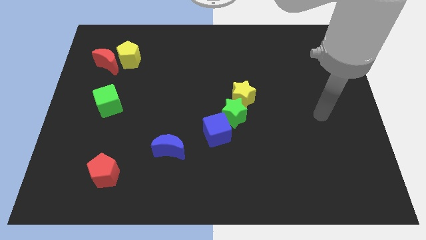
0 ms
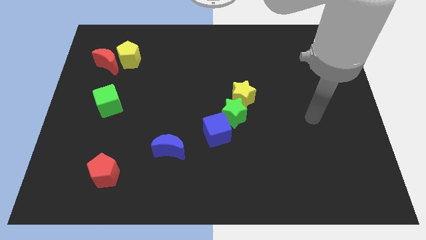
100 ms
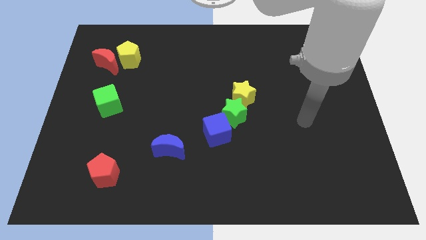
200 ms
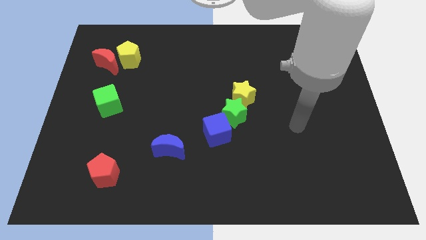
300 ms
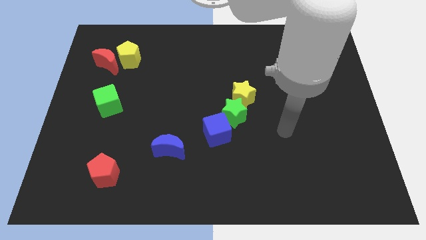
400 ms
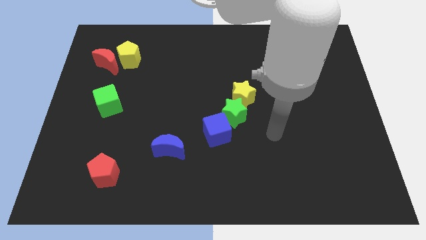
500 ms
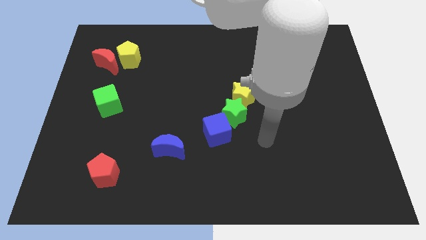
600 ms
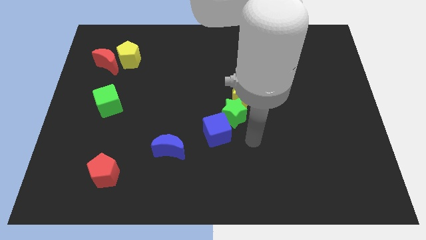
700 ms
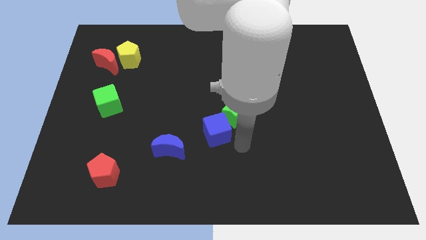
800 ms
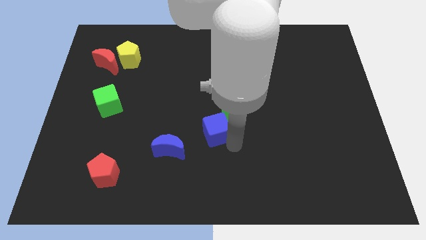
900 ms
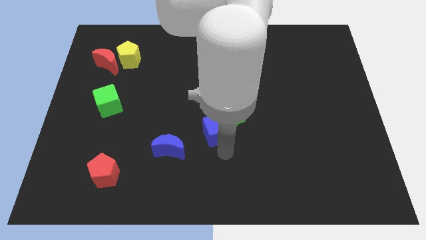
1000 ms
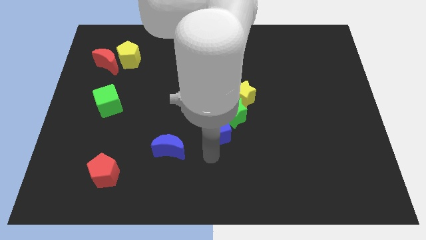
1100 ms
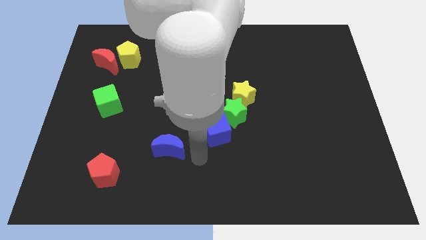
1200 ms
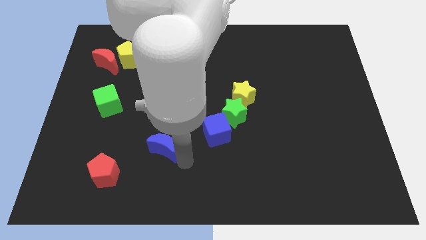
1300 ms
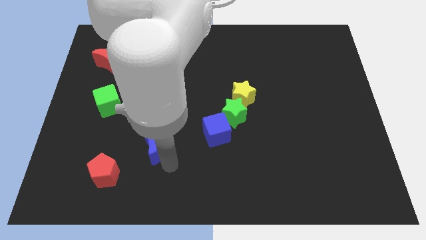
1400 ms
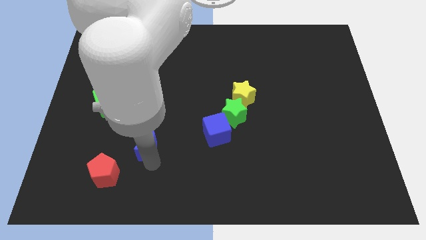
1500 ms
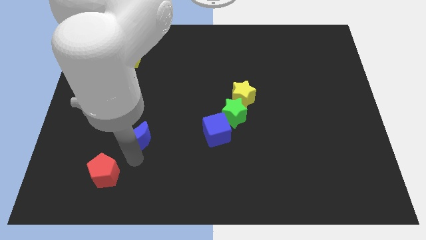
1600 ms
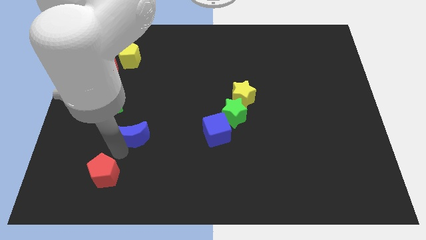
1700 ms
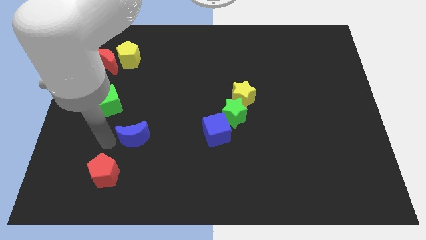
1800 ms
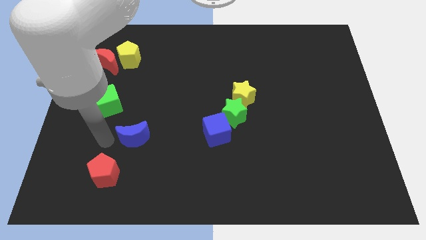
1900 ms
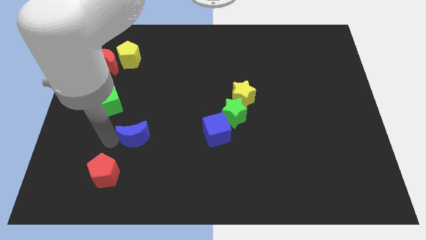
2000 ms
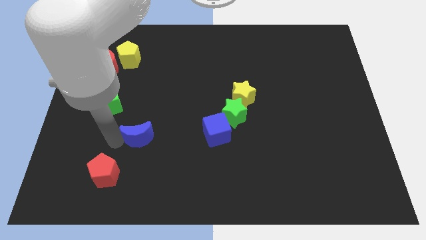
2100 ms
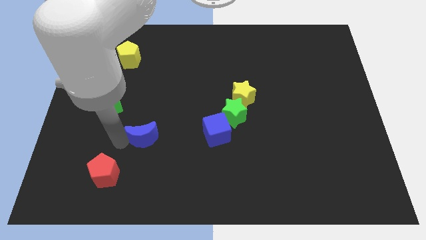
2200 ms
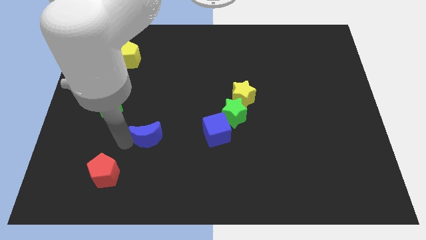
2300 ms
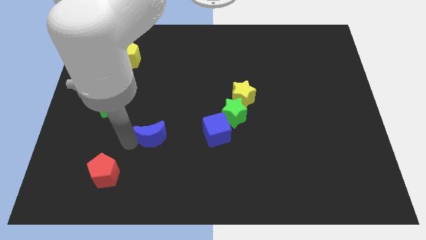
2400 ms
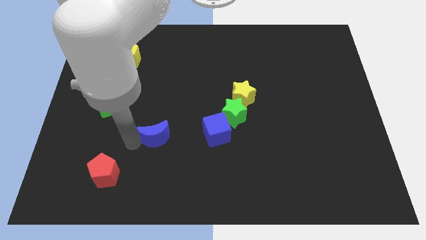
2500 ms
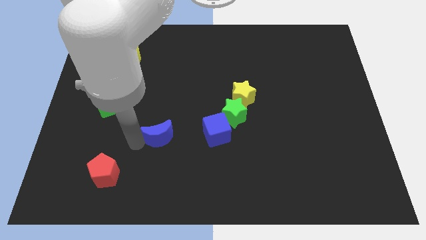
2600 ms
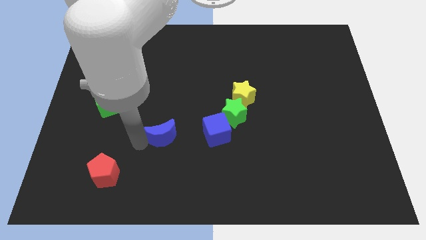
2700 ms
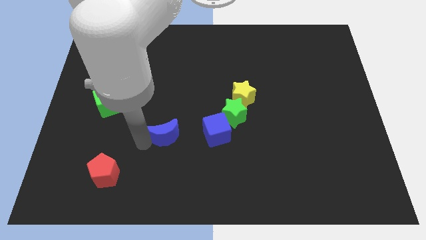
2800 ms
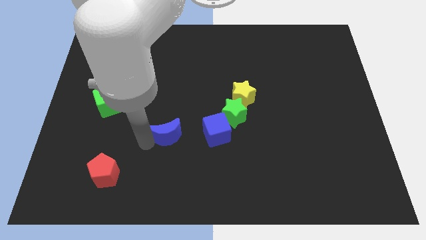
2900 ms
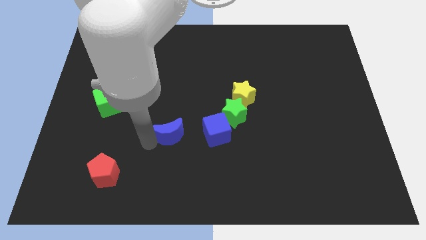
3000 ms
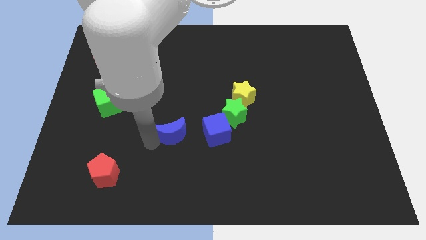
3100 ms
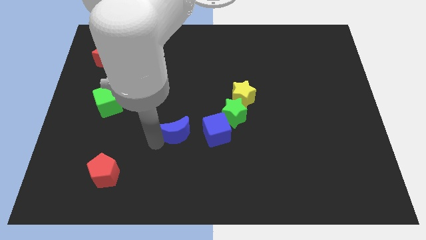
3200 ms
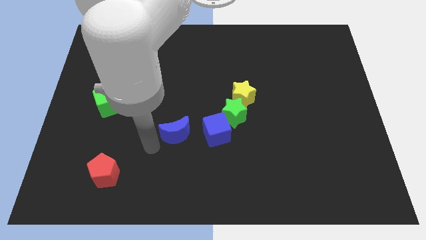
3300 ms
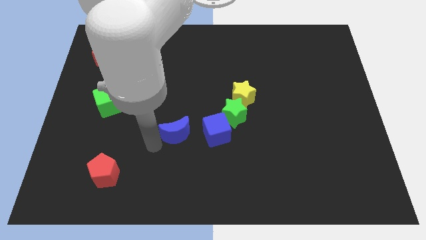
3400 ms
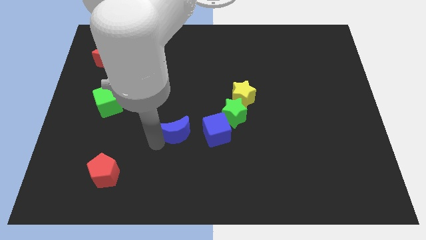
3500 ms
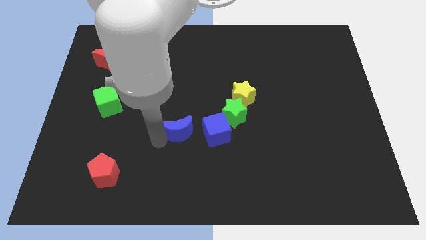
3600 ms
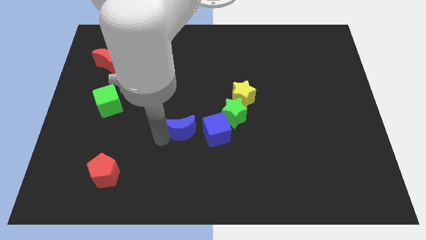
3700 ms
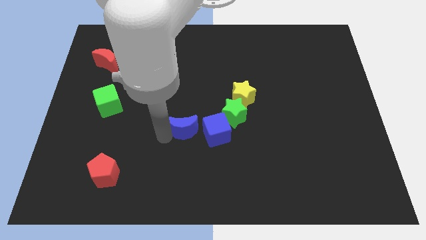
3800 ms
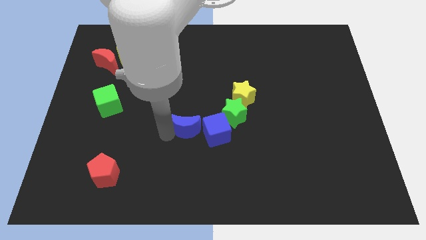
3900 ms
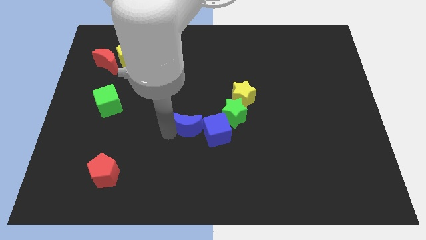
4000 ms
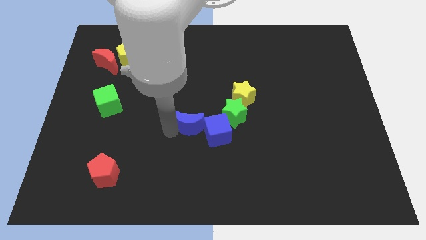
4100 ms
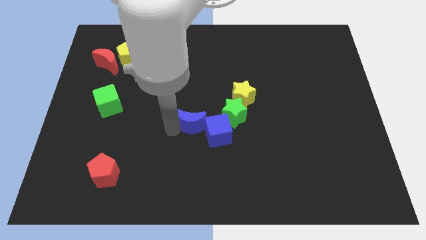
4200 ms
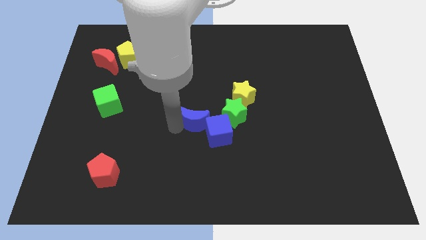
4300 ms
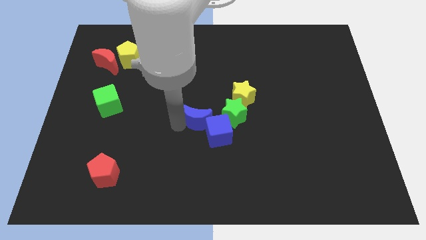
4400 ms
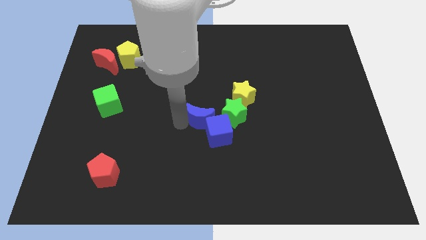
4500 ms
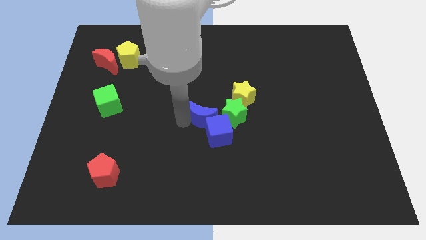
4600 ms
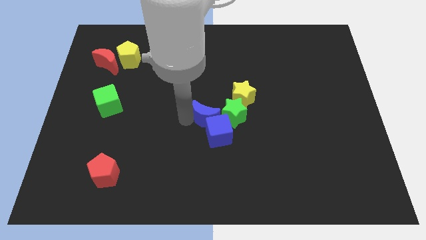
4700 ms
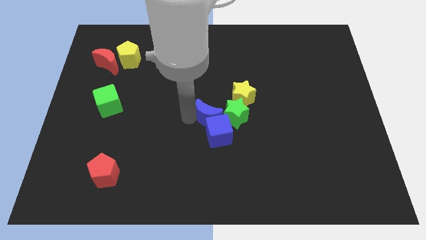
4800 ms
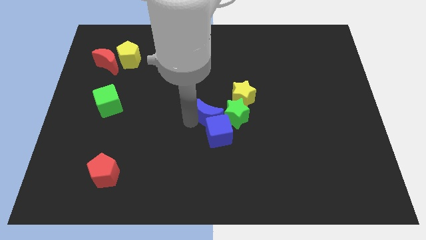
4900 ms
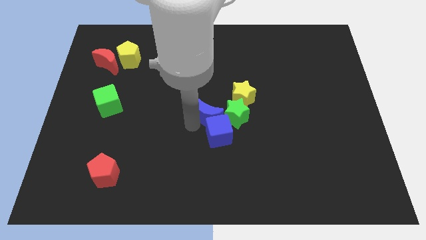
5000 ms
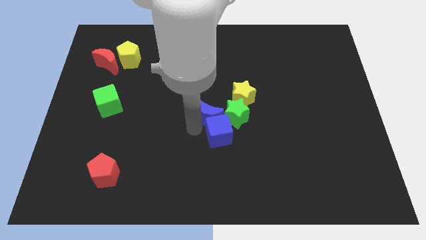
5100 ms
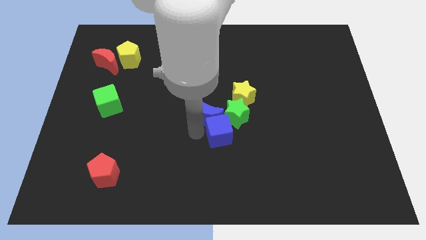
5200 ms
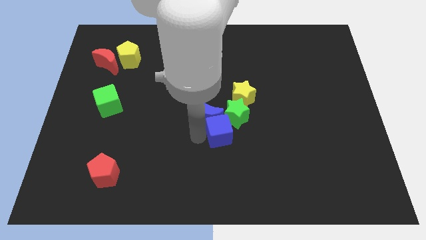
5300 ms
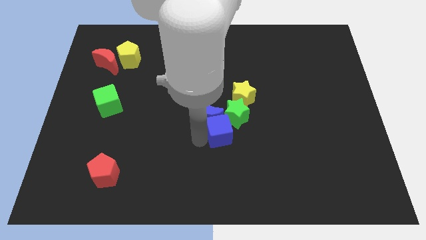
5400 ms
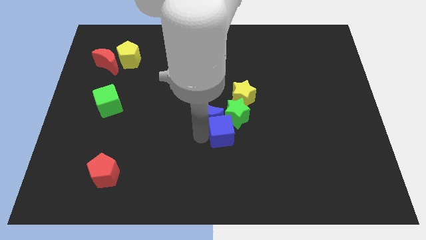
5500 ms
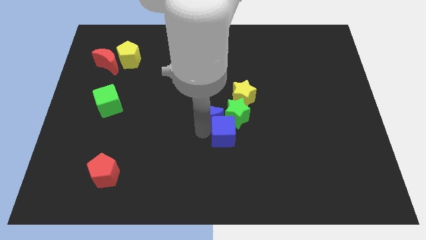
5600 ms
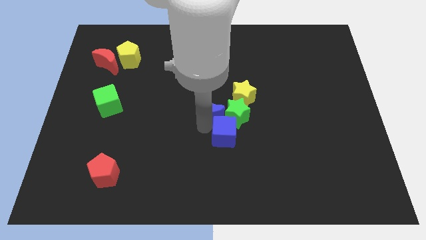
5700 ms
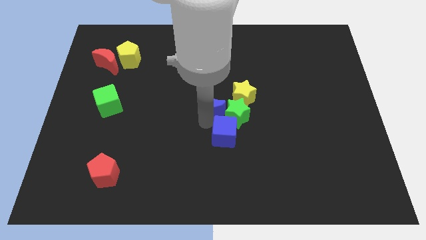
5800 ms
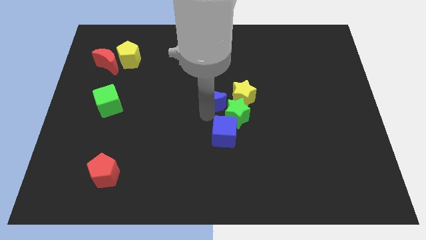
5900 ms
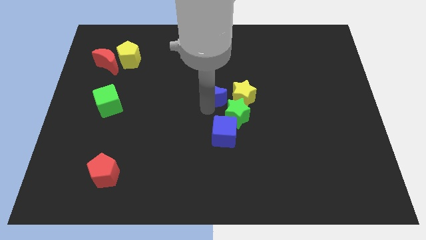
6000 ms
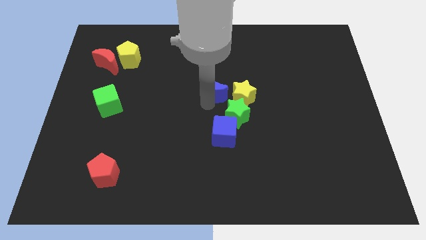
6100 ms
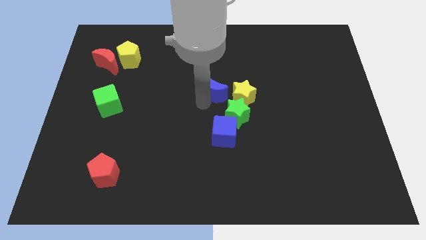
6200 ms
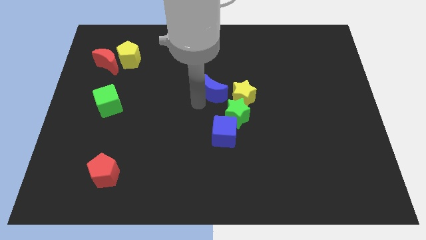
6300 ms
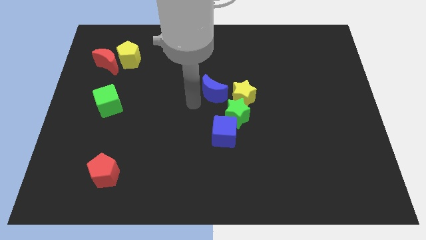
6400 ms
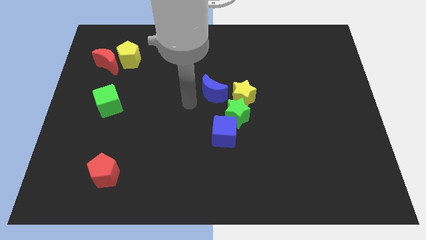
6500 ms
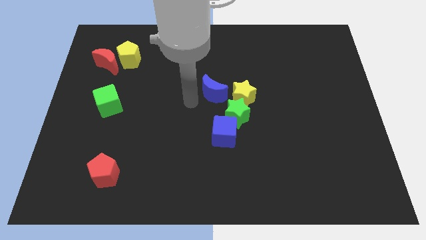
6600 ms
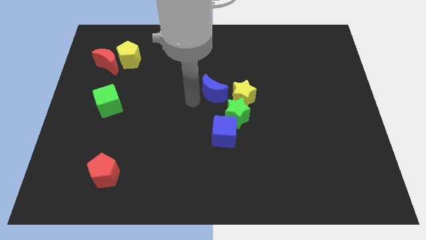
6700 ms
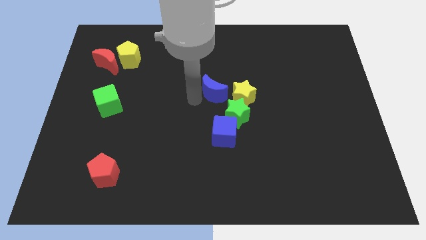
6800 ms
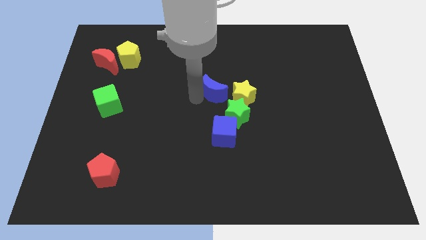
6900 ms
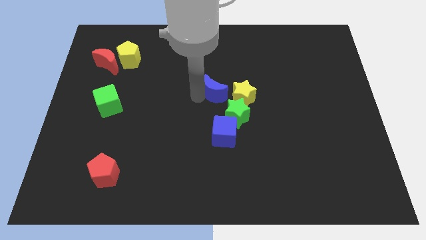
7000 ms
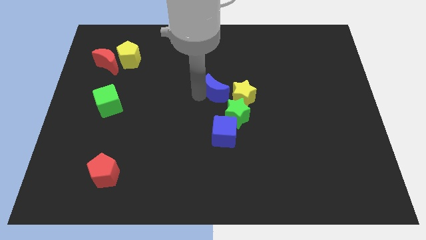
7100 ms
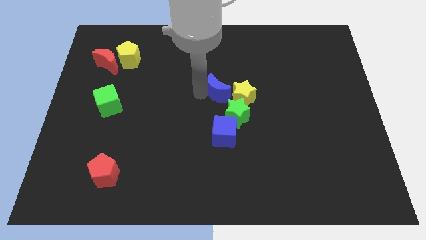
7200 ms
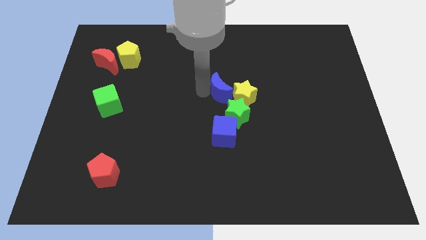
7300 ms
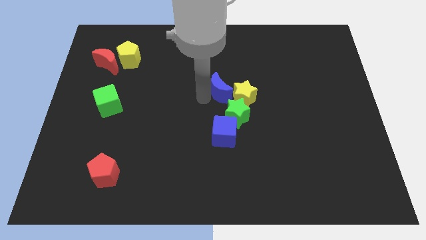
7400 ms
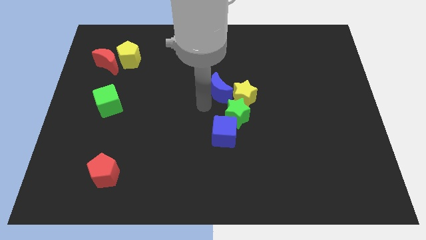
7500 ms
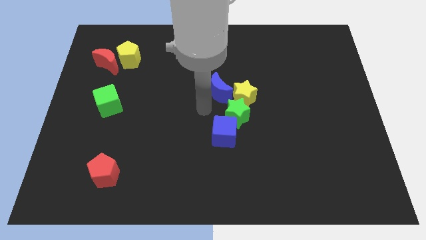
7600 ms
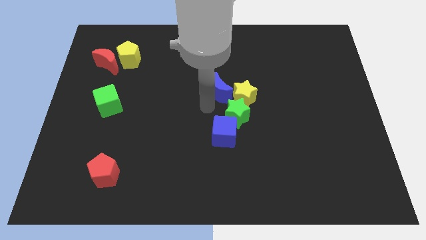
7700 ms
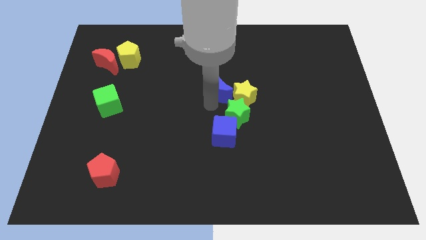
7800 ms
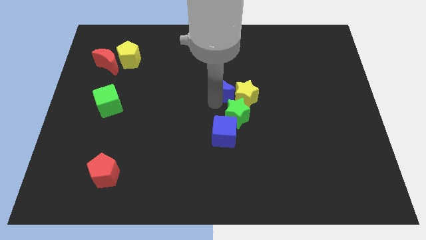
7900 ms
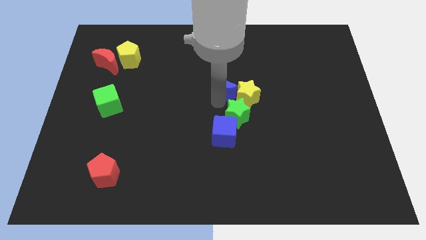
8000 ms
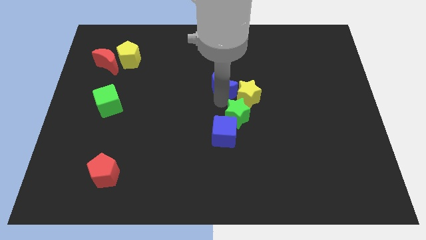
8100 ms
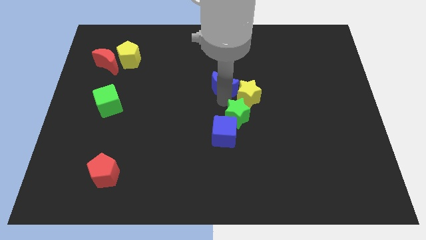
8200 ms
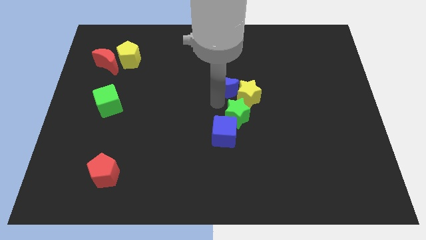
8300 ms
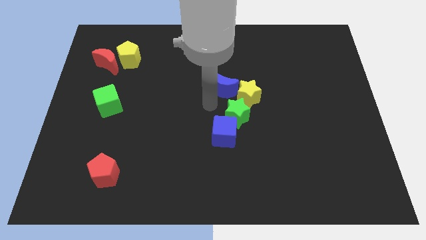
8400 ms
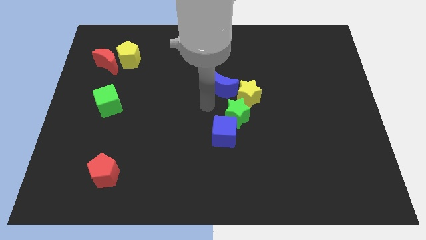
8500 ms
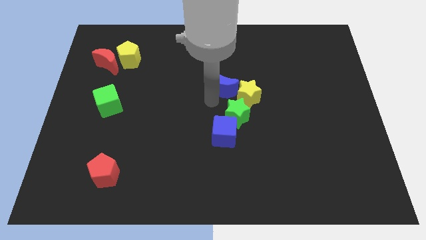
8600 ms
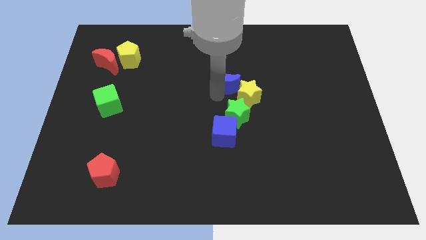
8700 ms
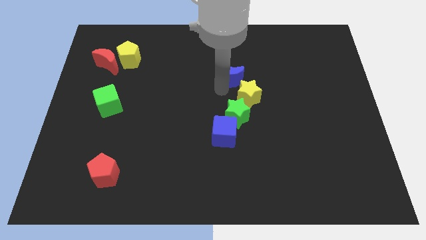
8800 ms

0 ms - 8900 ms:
push the blue moon above the yellow star
